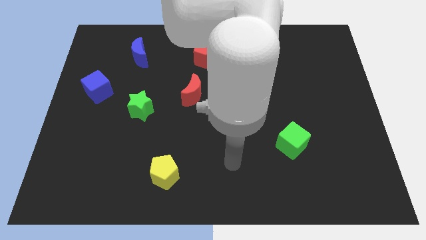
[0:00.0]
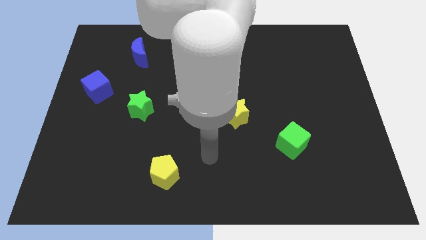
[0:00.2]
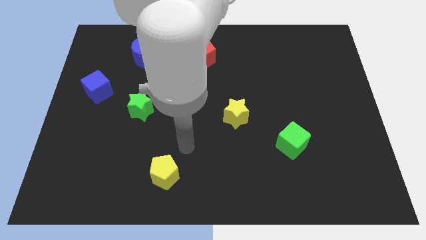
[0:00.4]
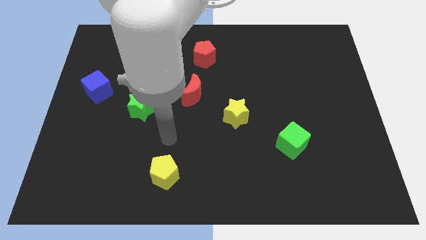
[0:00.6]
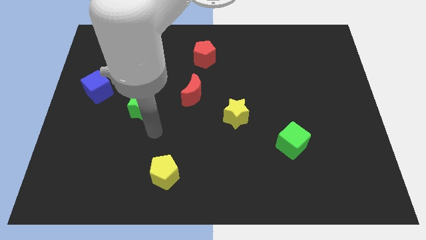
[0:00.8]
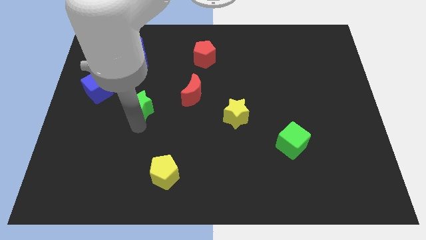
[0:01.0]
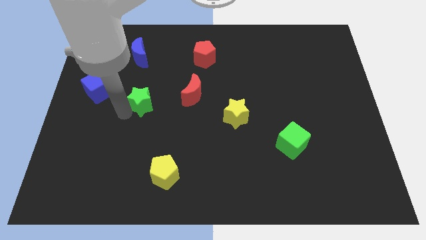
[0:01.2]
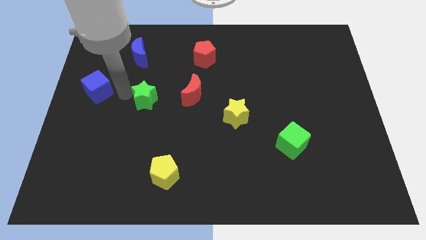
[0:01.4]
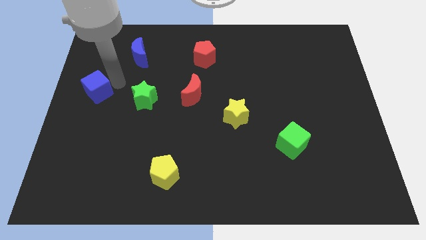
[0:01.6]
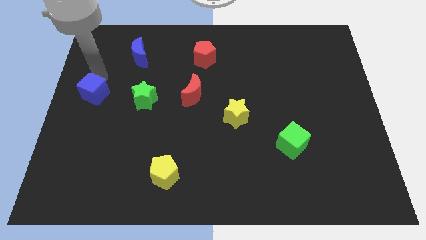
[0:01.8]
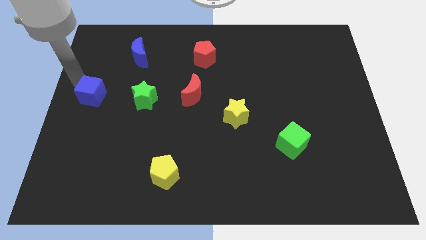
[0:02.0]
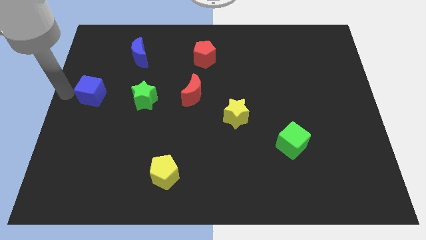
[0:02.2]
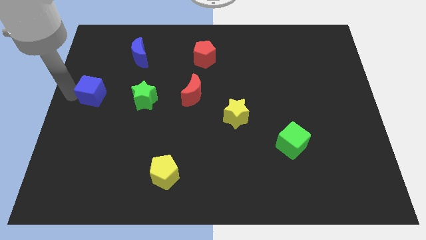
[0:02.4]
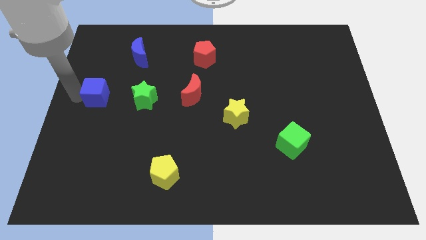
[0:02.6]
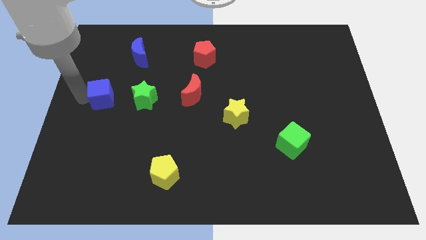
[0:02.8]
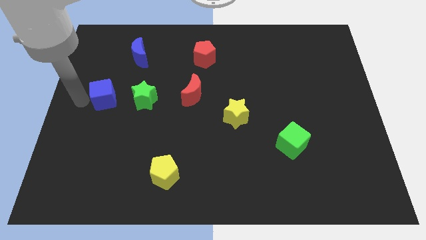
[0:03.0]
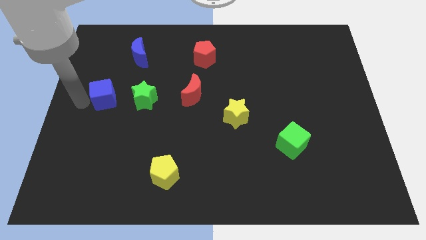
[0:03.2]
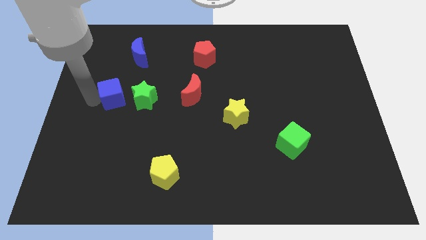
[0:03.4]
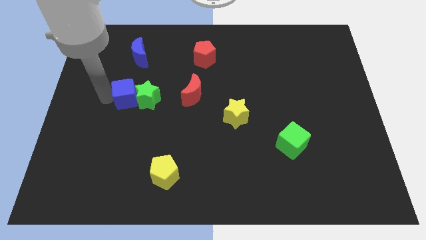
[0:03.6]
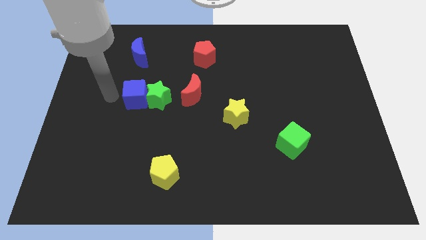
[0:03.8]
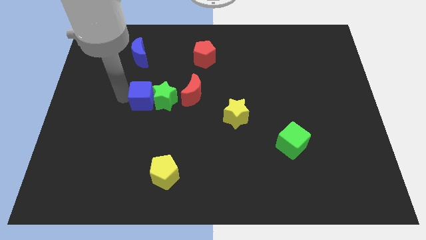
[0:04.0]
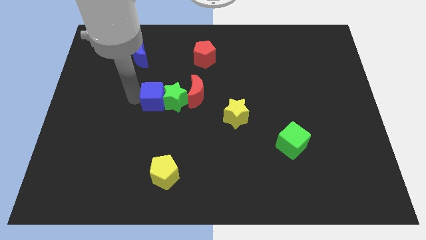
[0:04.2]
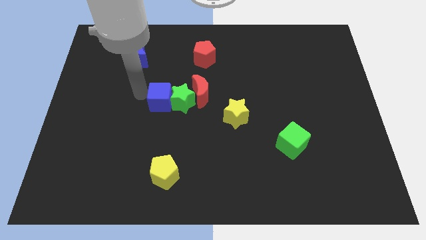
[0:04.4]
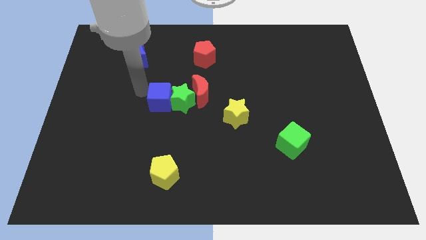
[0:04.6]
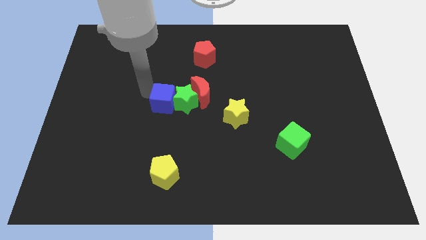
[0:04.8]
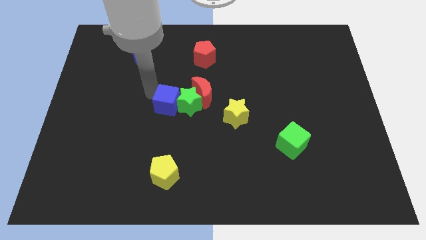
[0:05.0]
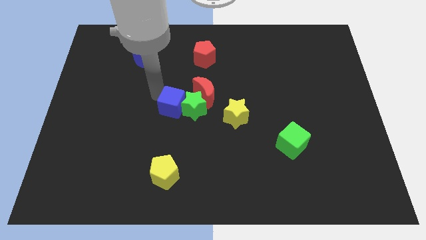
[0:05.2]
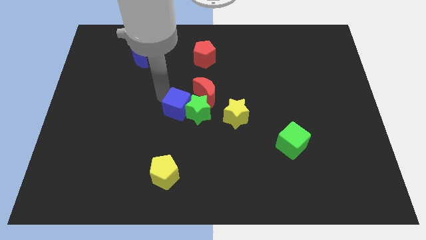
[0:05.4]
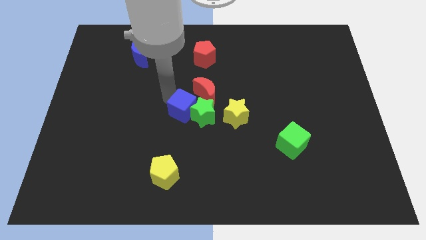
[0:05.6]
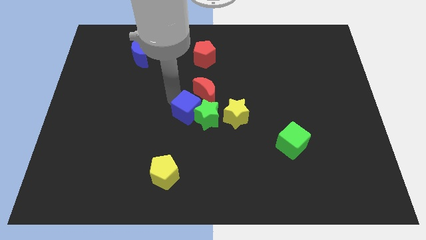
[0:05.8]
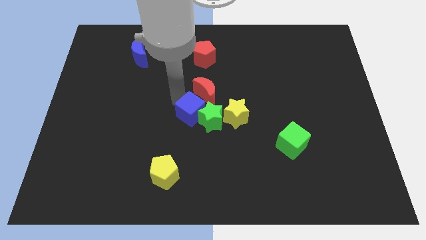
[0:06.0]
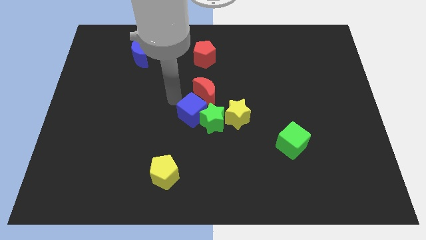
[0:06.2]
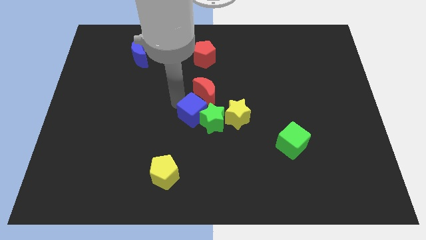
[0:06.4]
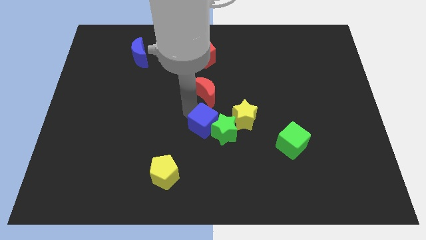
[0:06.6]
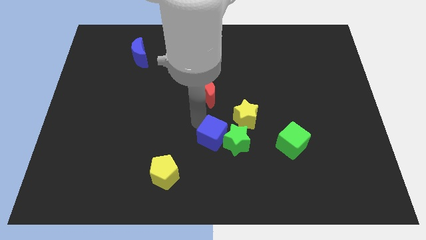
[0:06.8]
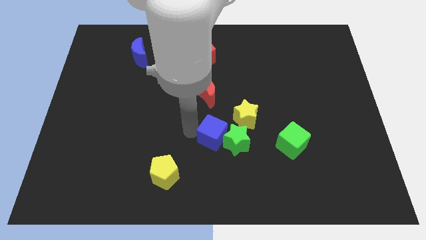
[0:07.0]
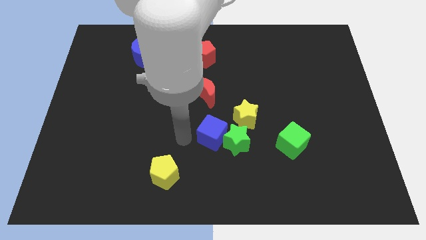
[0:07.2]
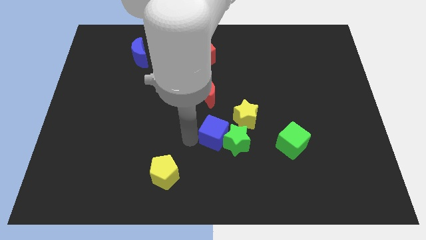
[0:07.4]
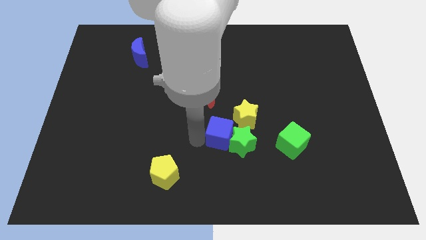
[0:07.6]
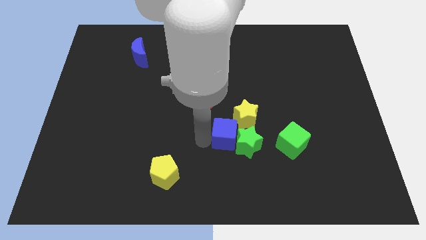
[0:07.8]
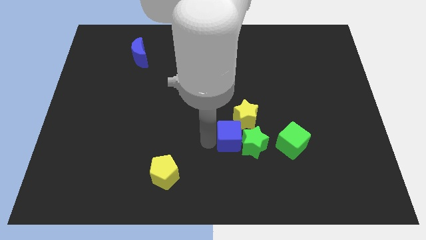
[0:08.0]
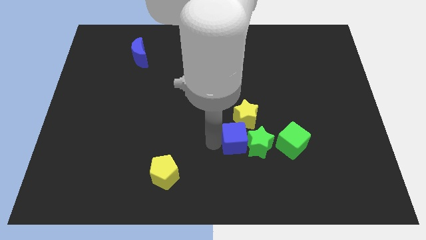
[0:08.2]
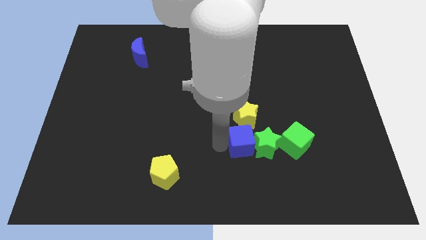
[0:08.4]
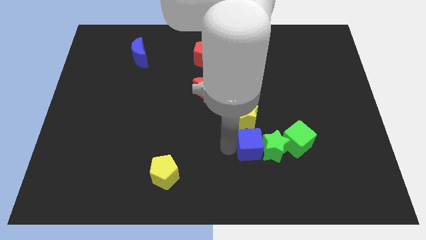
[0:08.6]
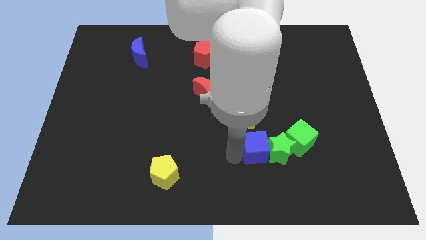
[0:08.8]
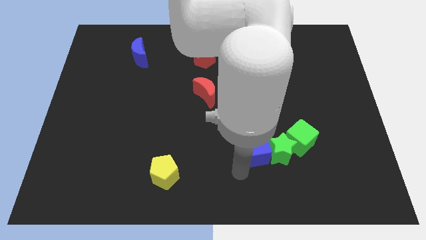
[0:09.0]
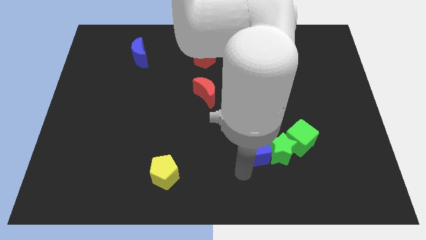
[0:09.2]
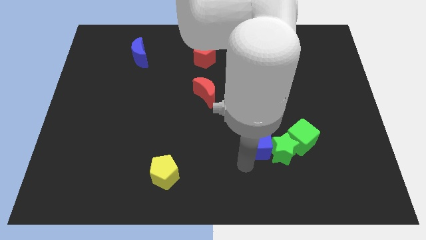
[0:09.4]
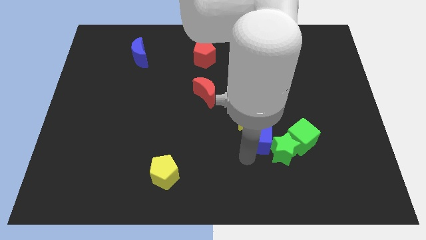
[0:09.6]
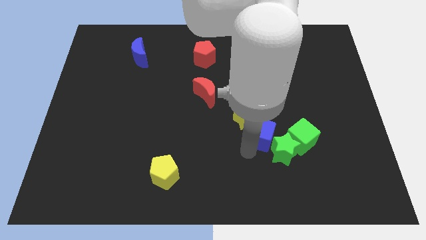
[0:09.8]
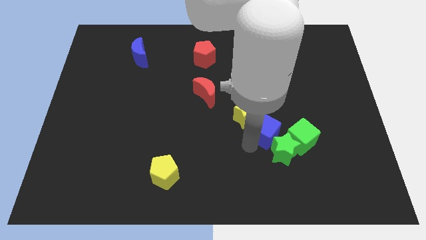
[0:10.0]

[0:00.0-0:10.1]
push the blue cube to the top left of the green cube

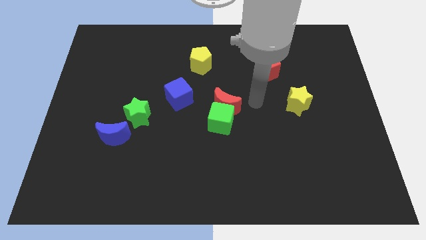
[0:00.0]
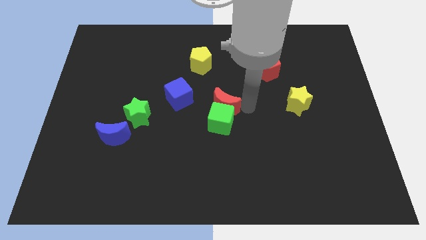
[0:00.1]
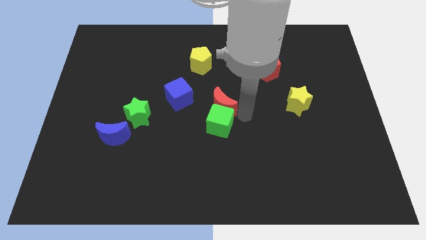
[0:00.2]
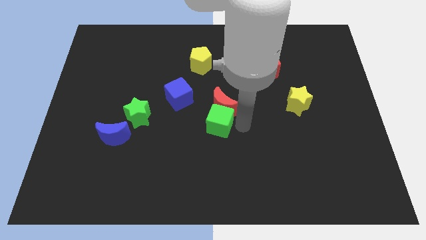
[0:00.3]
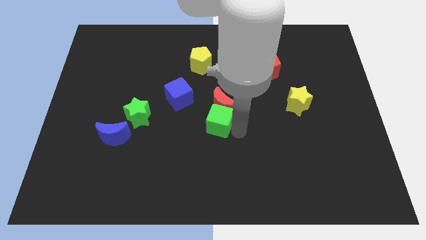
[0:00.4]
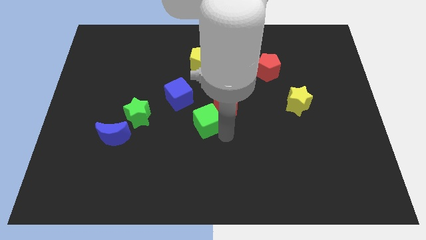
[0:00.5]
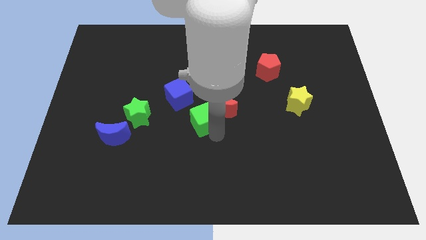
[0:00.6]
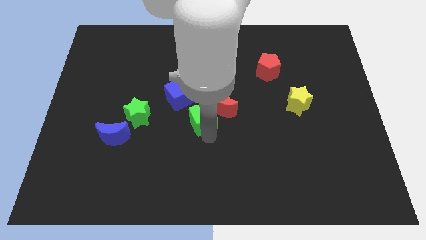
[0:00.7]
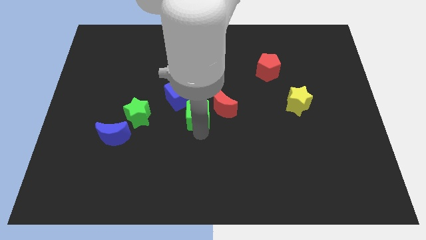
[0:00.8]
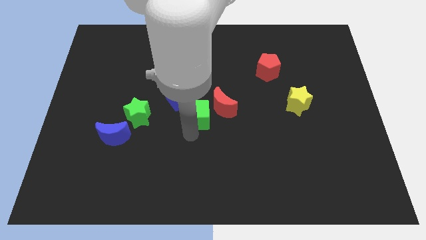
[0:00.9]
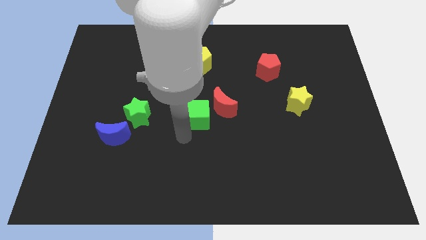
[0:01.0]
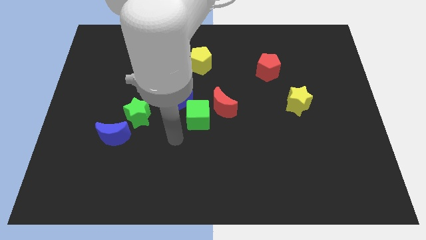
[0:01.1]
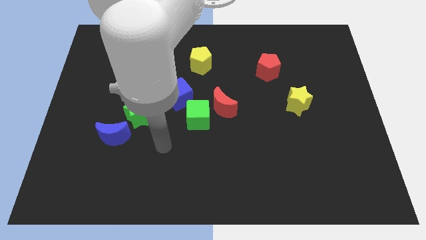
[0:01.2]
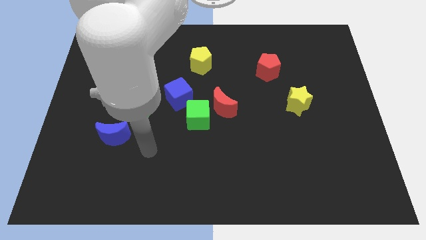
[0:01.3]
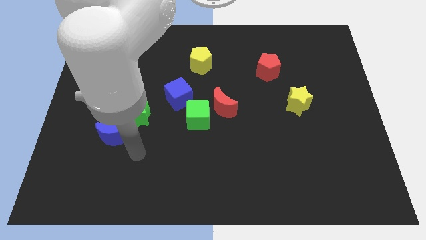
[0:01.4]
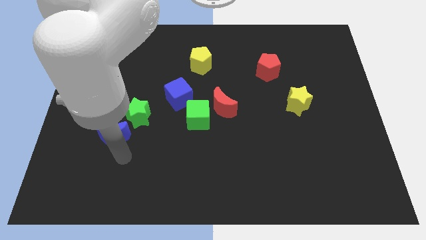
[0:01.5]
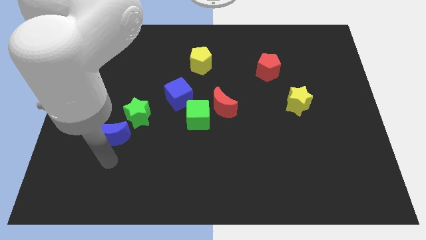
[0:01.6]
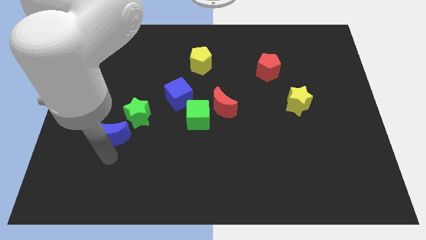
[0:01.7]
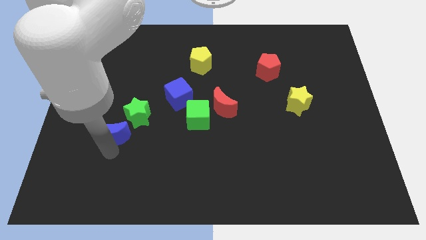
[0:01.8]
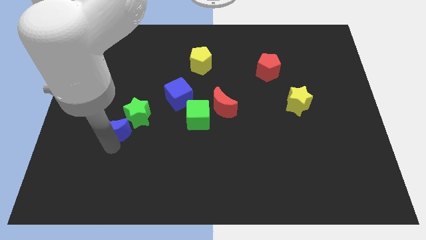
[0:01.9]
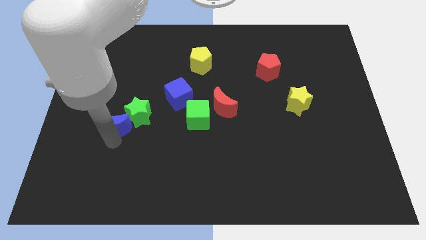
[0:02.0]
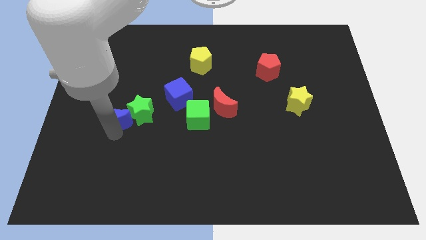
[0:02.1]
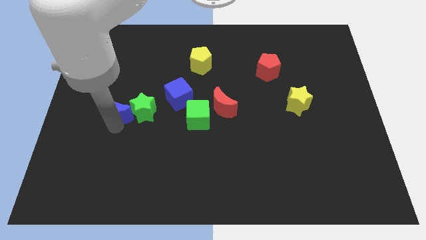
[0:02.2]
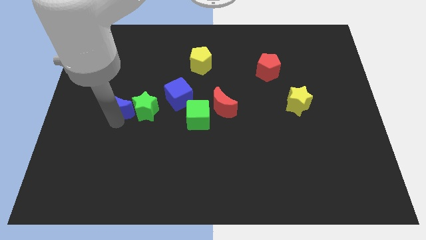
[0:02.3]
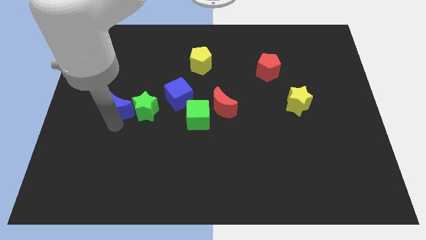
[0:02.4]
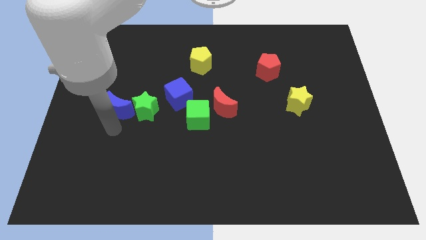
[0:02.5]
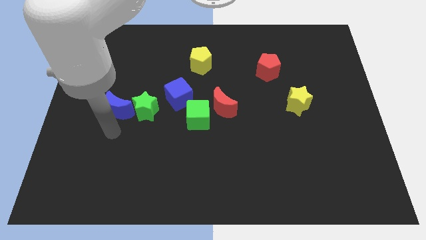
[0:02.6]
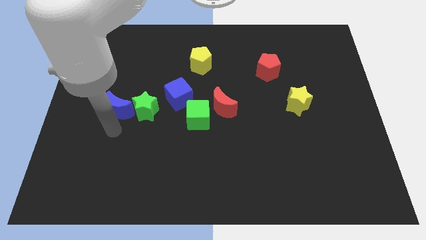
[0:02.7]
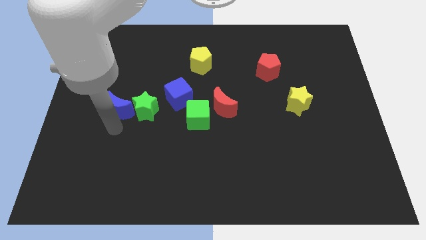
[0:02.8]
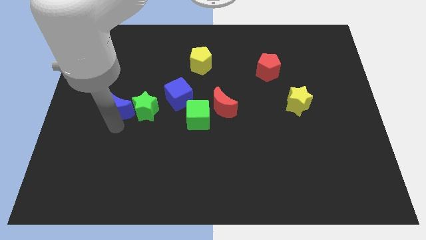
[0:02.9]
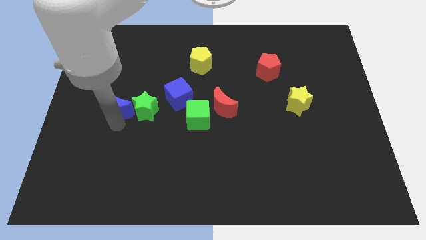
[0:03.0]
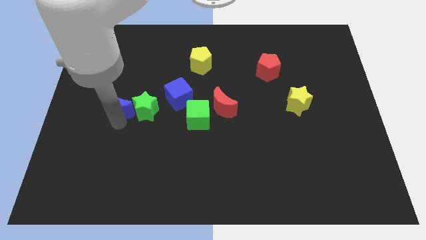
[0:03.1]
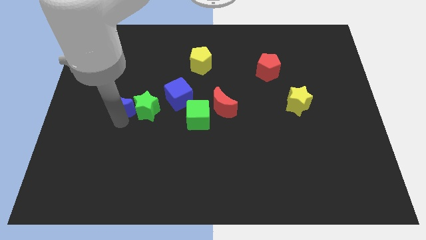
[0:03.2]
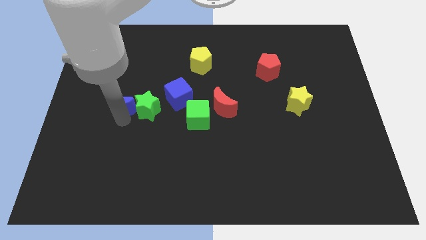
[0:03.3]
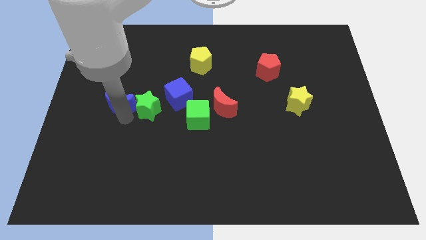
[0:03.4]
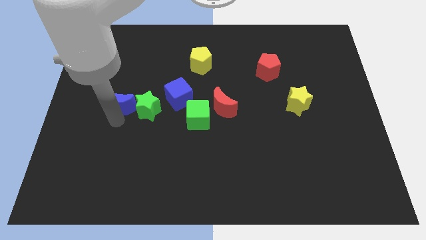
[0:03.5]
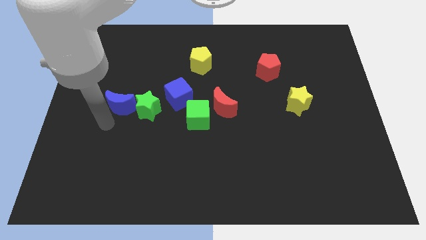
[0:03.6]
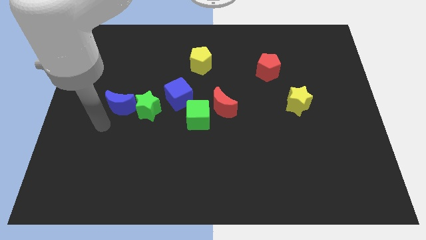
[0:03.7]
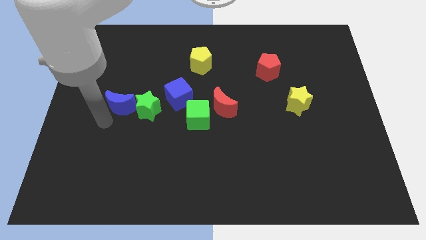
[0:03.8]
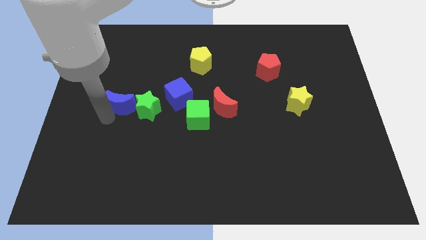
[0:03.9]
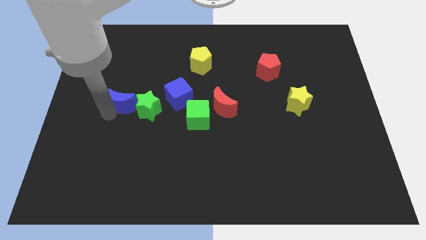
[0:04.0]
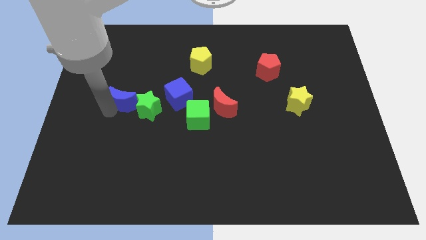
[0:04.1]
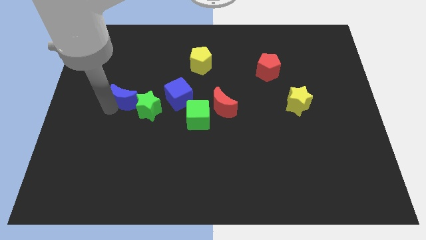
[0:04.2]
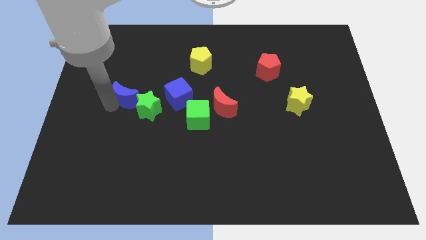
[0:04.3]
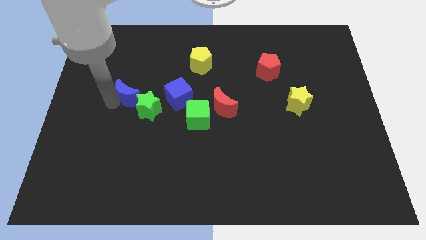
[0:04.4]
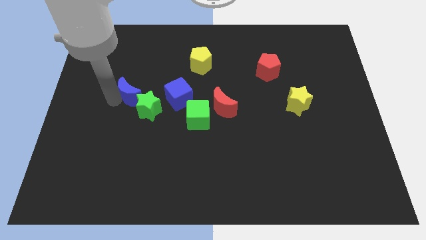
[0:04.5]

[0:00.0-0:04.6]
slide the blue moon to the top side of the green star
